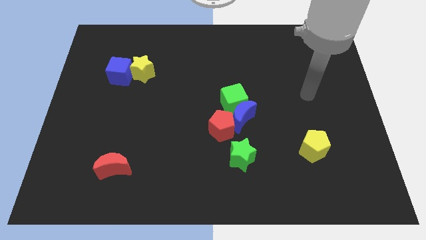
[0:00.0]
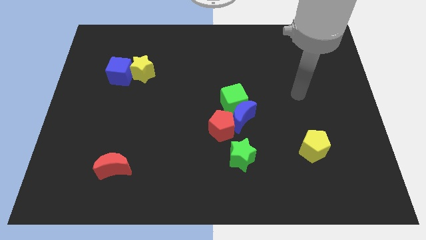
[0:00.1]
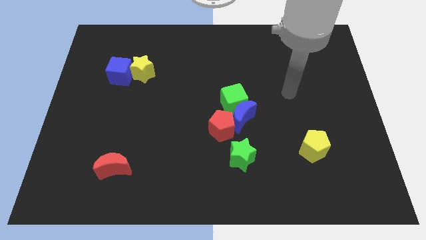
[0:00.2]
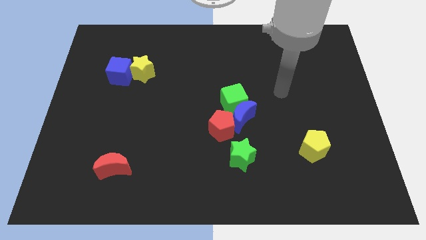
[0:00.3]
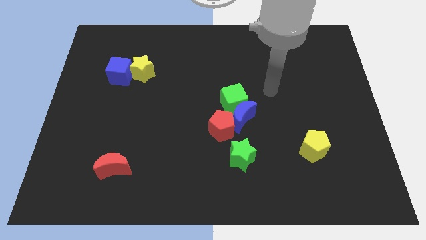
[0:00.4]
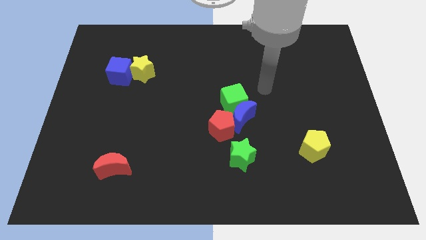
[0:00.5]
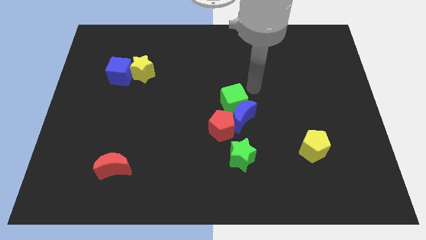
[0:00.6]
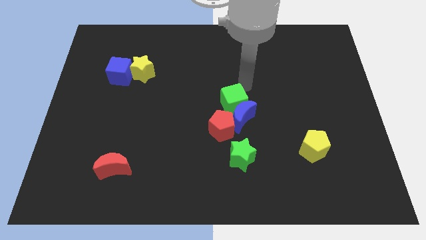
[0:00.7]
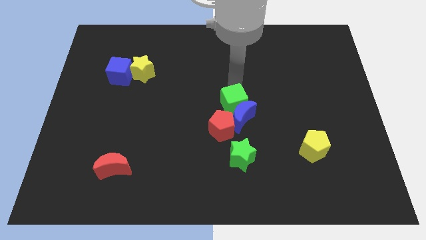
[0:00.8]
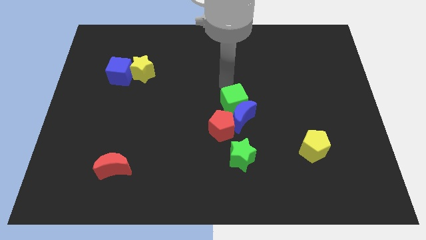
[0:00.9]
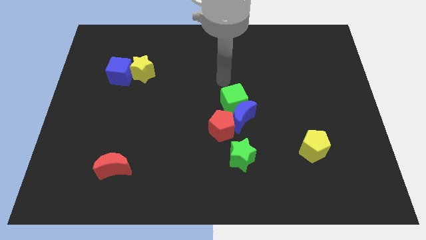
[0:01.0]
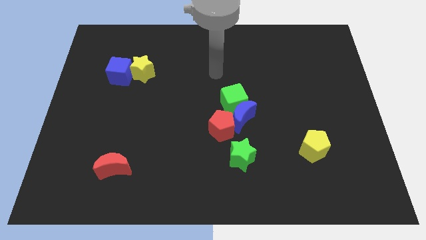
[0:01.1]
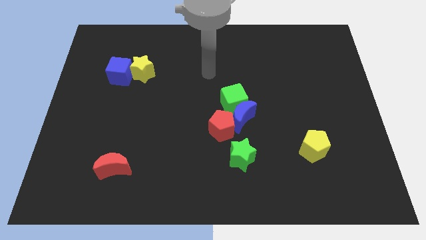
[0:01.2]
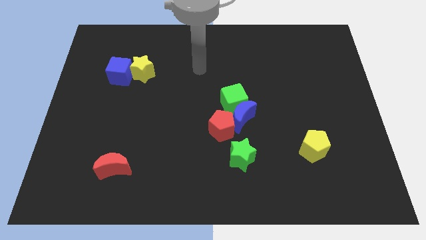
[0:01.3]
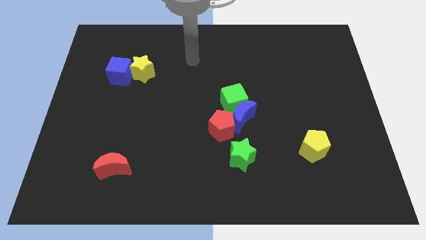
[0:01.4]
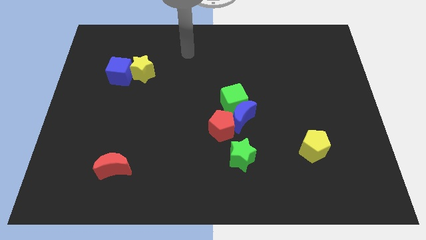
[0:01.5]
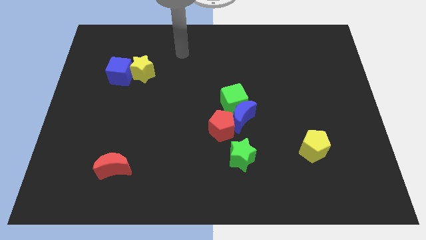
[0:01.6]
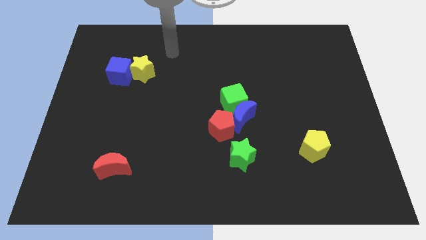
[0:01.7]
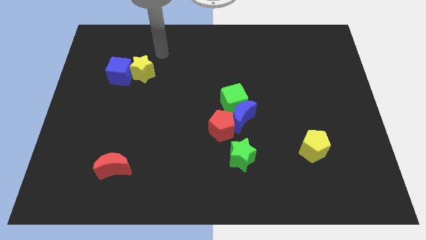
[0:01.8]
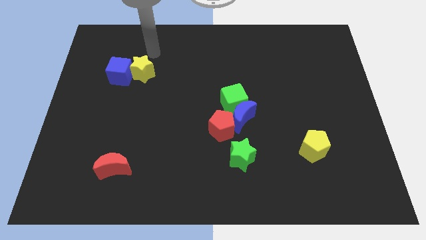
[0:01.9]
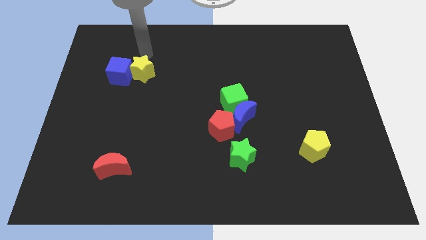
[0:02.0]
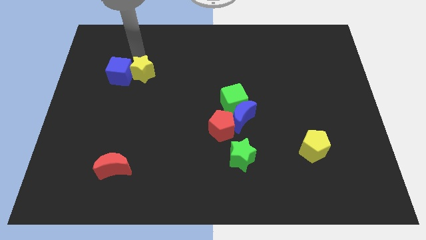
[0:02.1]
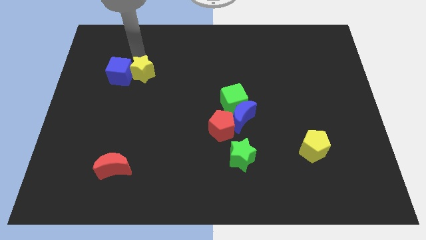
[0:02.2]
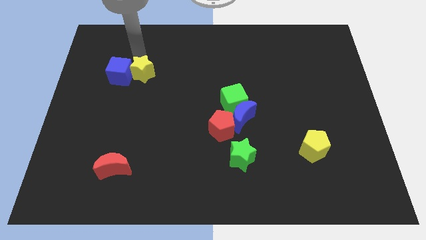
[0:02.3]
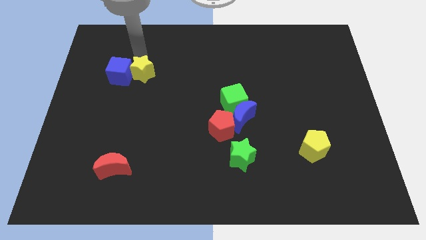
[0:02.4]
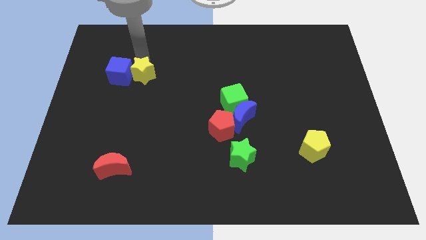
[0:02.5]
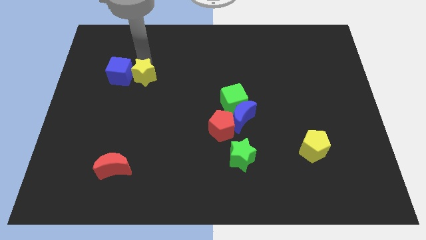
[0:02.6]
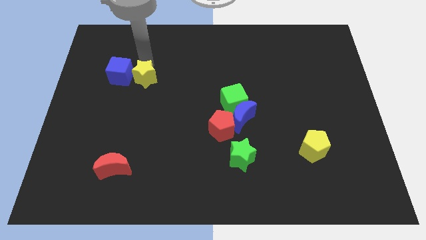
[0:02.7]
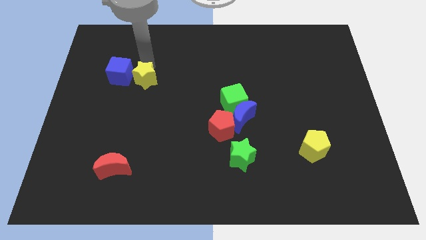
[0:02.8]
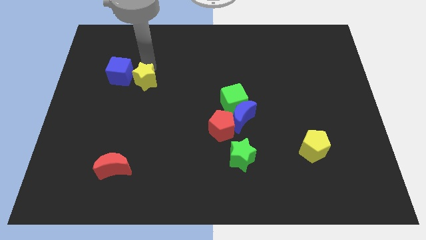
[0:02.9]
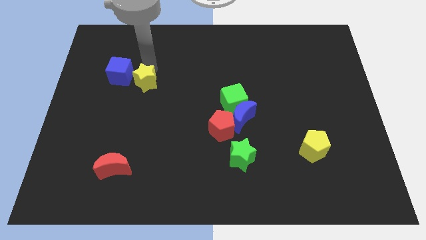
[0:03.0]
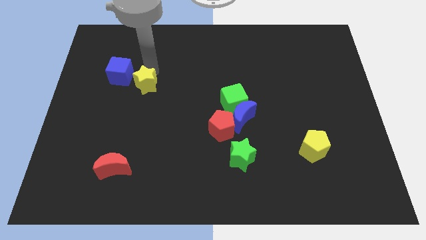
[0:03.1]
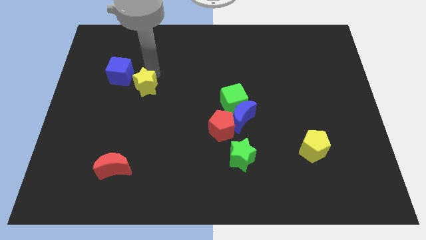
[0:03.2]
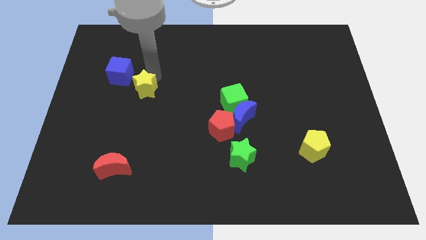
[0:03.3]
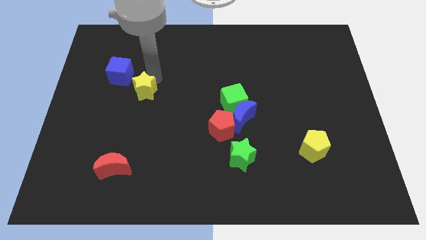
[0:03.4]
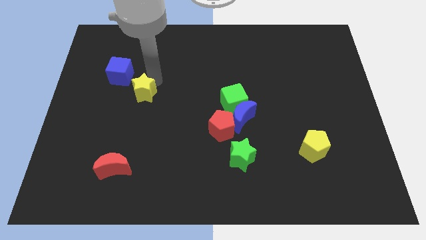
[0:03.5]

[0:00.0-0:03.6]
slide the yellow star a little downwards

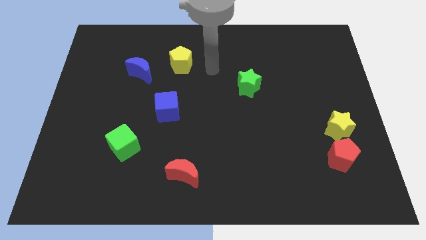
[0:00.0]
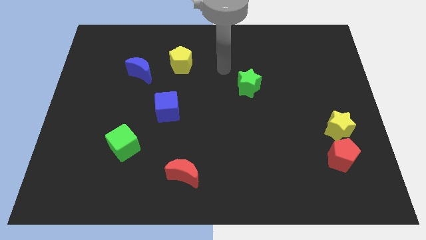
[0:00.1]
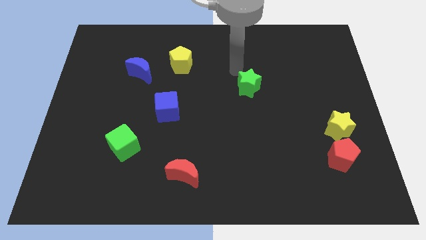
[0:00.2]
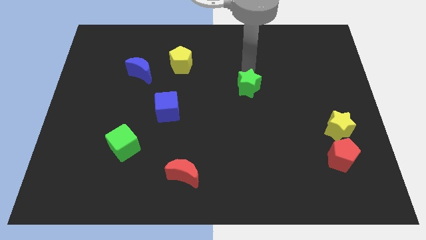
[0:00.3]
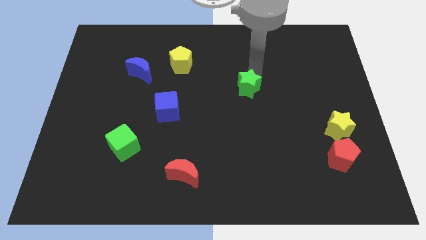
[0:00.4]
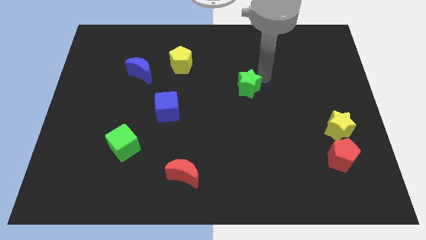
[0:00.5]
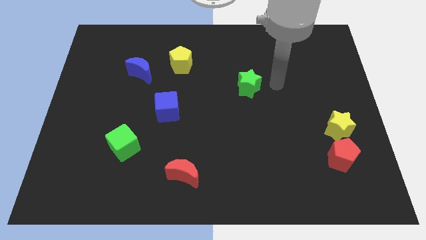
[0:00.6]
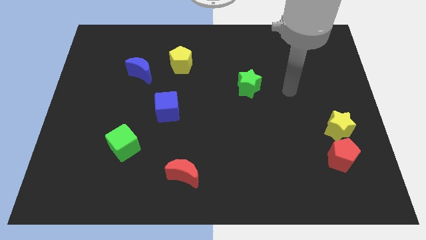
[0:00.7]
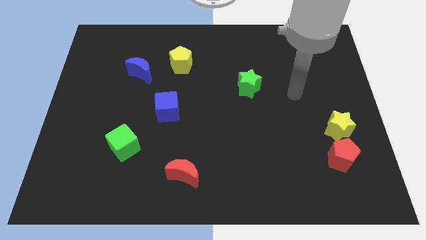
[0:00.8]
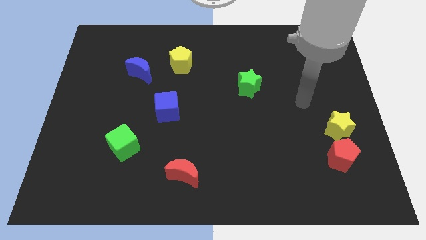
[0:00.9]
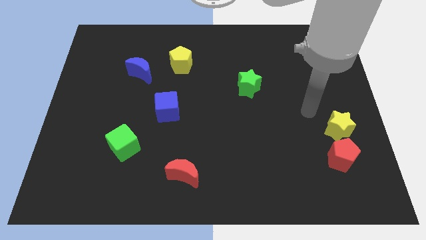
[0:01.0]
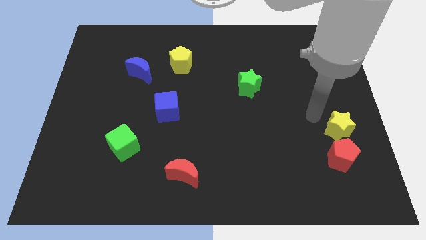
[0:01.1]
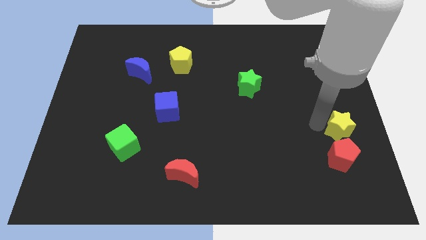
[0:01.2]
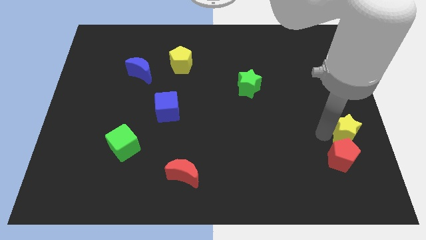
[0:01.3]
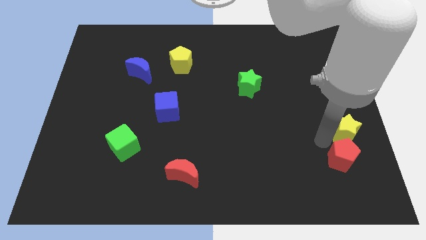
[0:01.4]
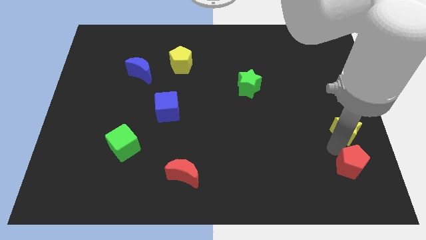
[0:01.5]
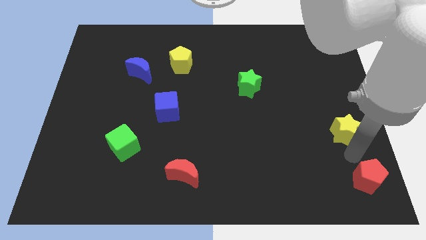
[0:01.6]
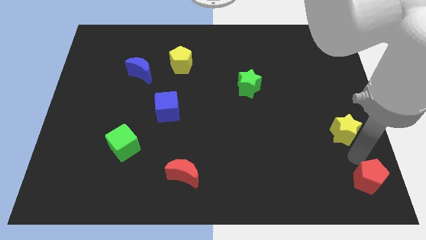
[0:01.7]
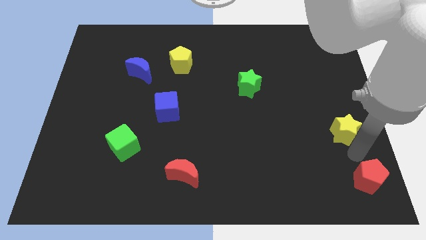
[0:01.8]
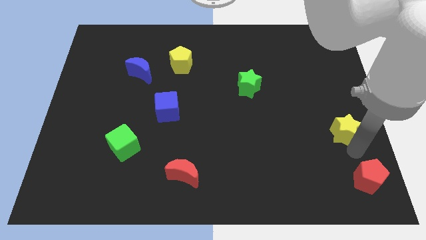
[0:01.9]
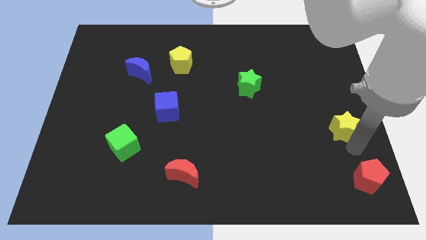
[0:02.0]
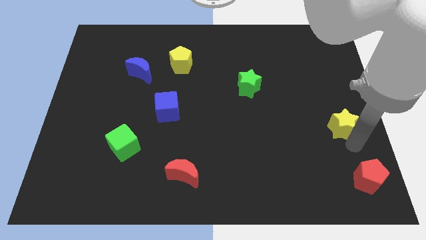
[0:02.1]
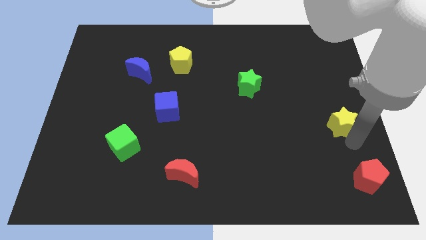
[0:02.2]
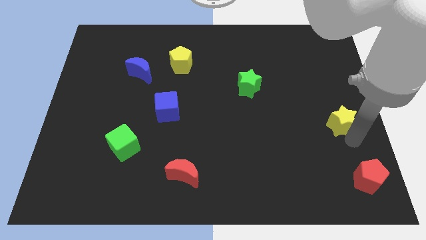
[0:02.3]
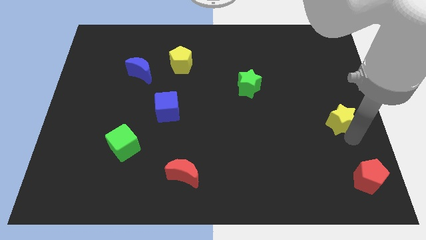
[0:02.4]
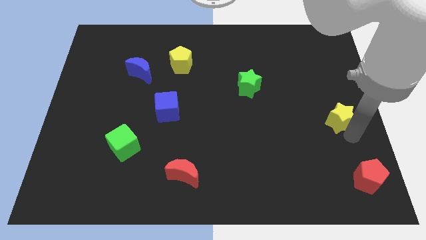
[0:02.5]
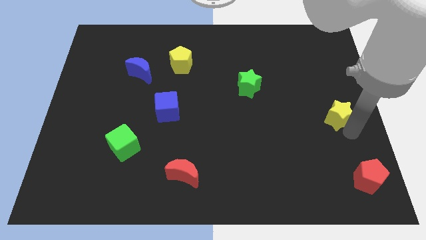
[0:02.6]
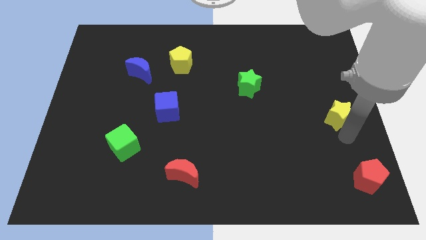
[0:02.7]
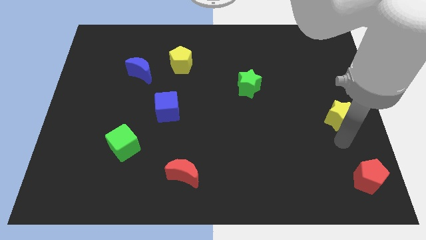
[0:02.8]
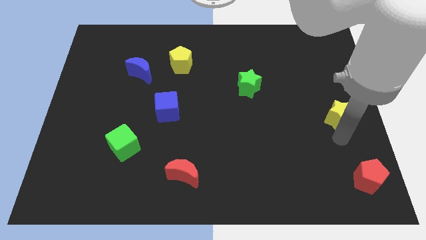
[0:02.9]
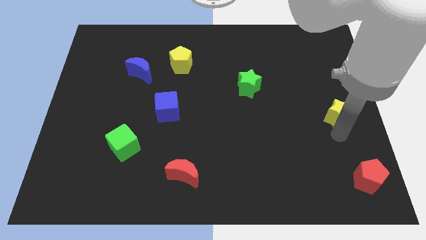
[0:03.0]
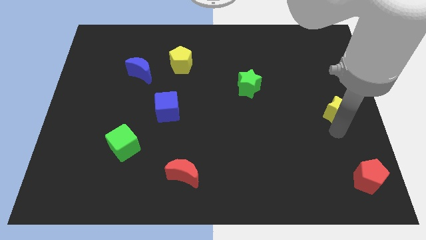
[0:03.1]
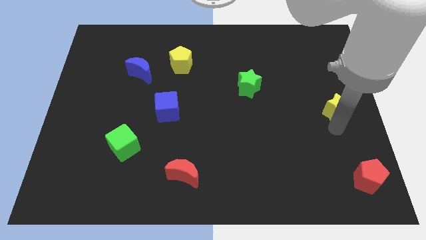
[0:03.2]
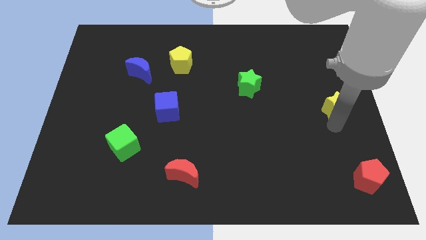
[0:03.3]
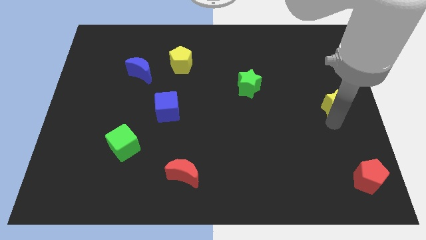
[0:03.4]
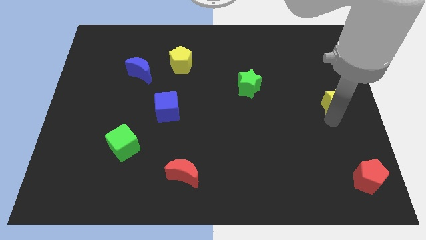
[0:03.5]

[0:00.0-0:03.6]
slightly push the yellow star upwards

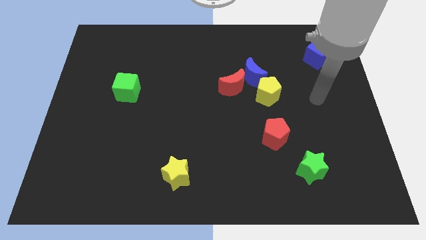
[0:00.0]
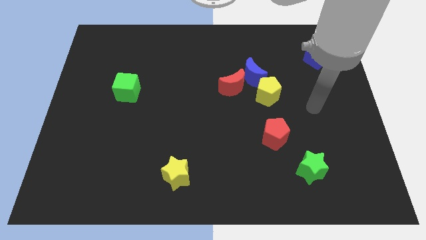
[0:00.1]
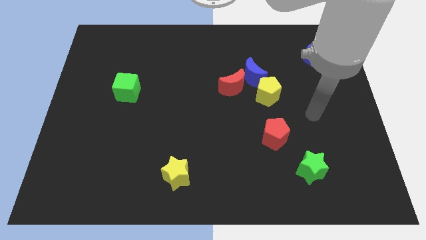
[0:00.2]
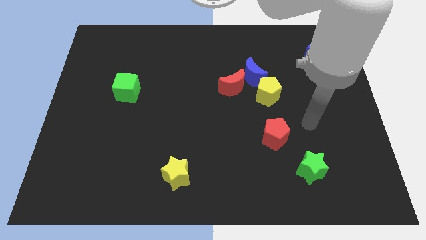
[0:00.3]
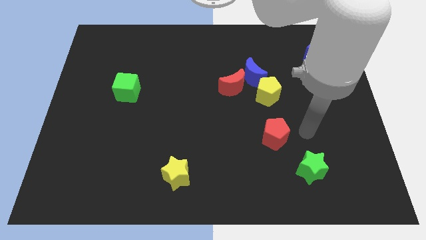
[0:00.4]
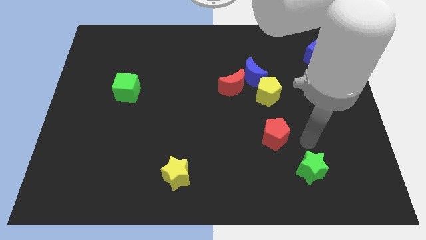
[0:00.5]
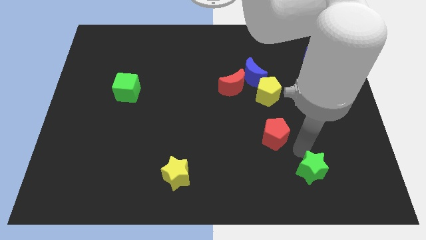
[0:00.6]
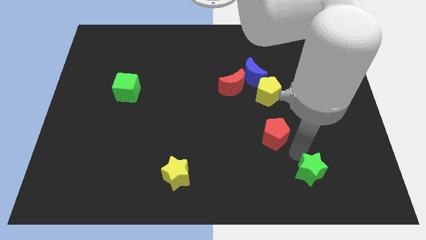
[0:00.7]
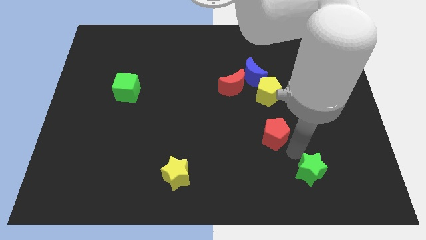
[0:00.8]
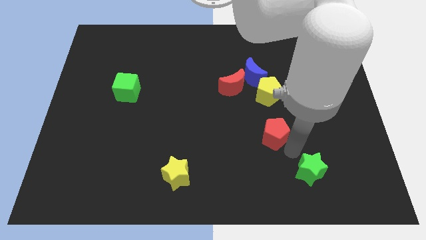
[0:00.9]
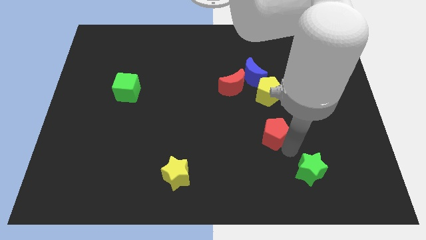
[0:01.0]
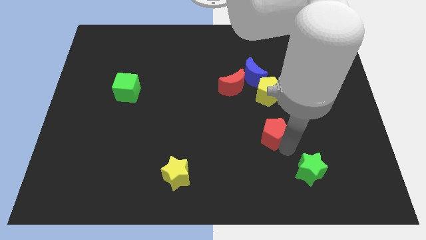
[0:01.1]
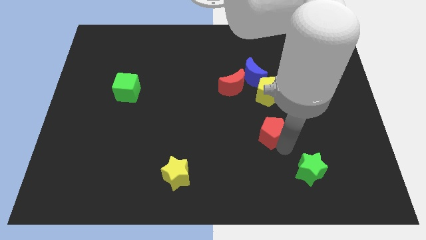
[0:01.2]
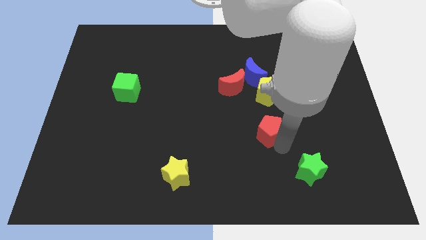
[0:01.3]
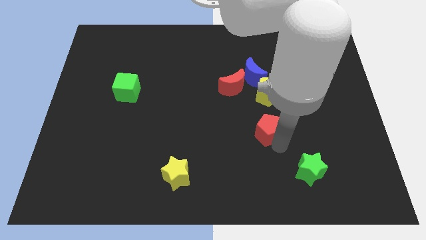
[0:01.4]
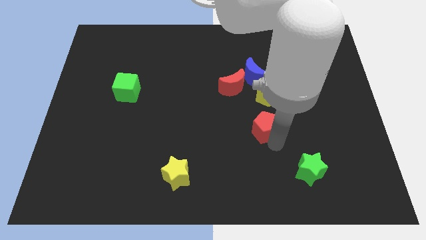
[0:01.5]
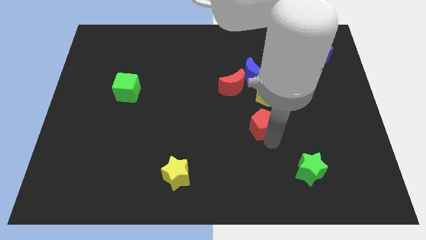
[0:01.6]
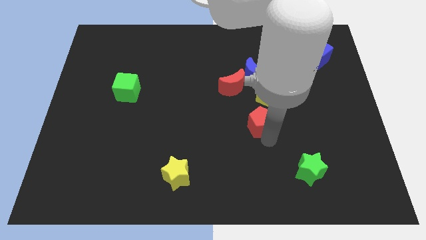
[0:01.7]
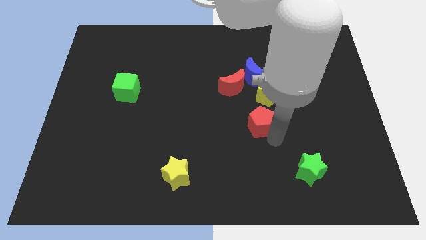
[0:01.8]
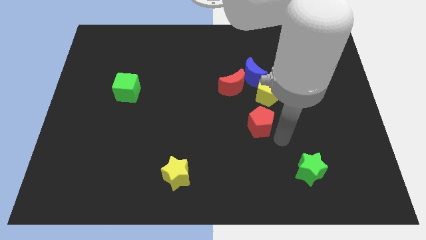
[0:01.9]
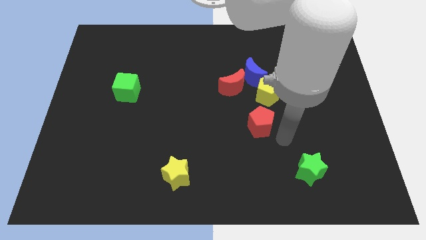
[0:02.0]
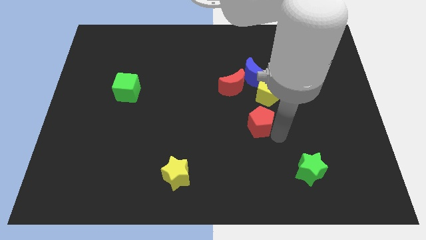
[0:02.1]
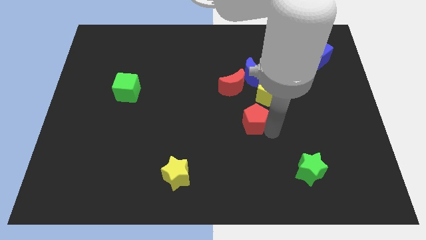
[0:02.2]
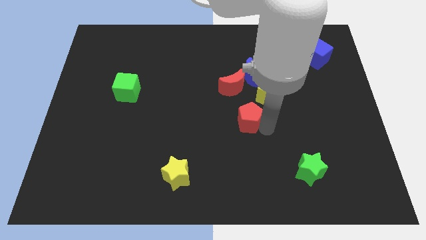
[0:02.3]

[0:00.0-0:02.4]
push the red pentagon upwards and left slightly
